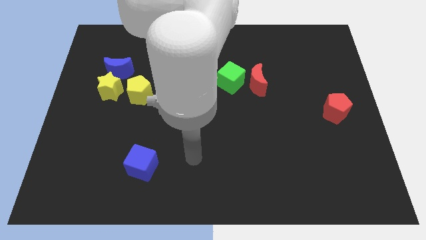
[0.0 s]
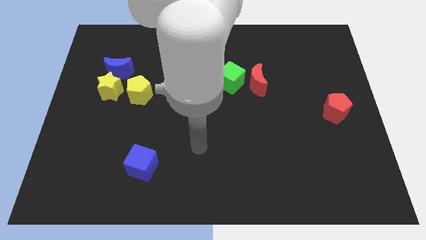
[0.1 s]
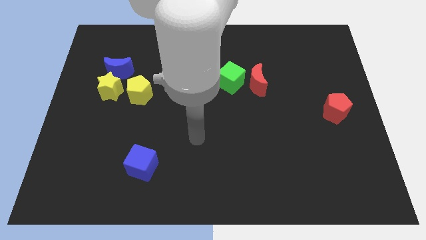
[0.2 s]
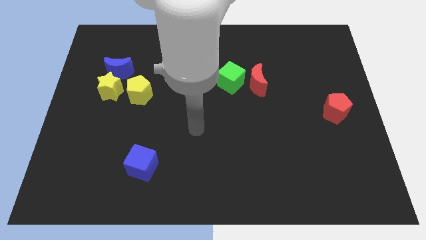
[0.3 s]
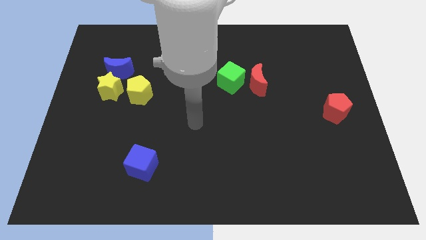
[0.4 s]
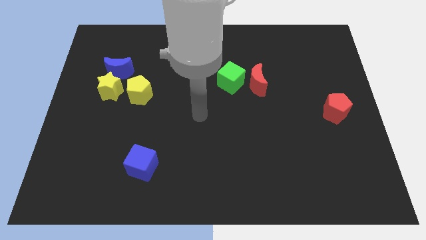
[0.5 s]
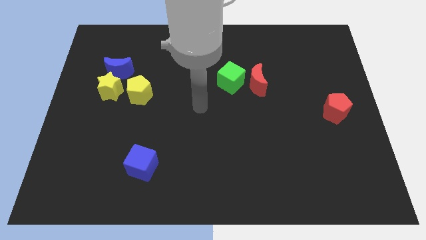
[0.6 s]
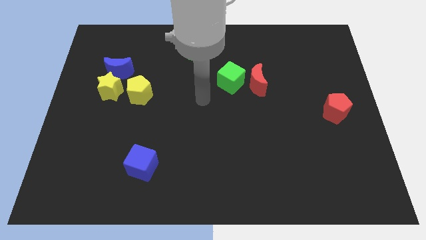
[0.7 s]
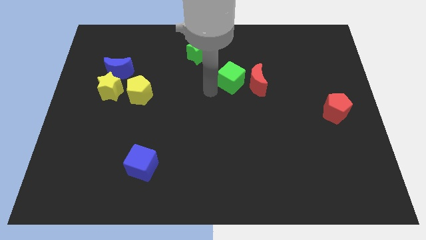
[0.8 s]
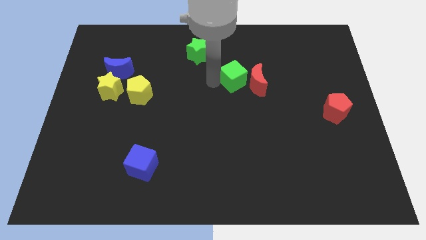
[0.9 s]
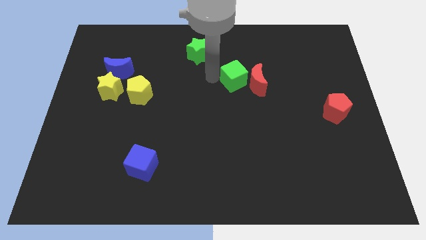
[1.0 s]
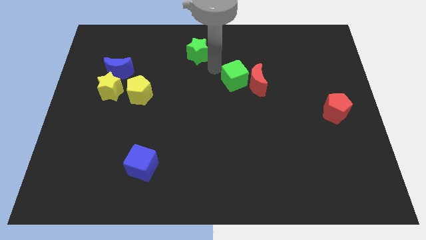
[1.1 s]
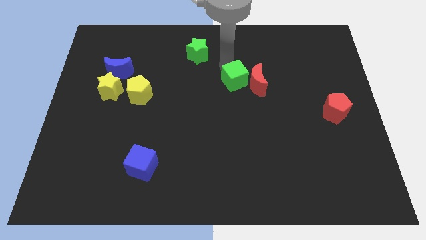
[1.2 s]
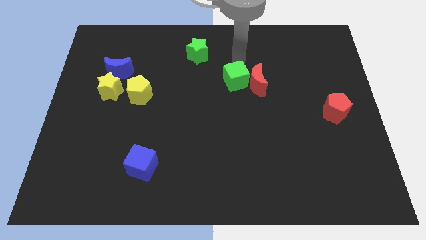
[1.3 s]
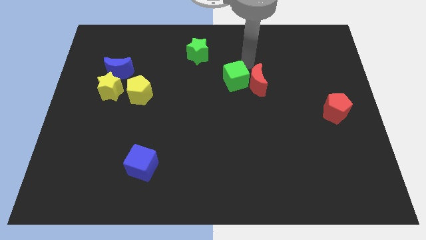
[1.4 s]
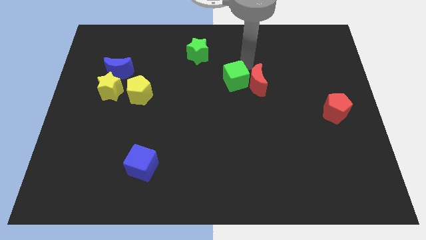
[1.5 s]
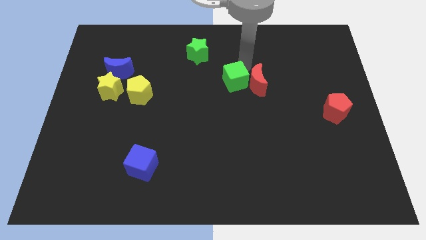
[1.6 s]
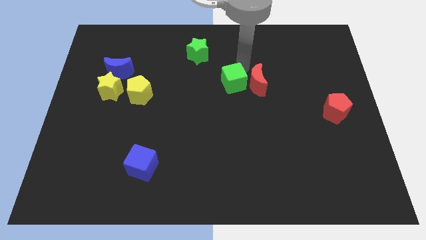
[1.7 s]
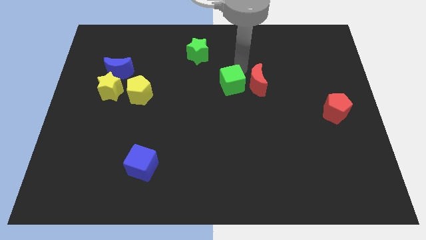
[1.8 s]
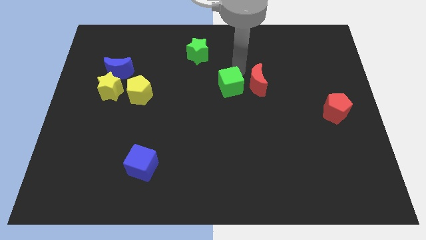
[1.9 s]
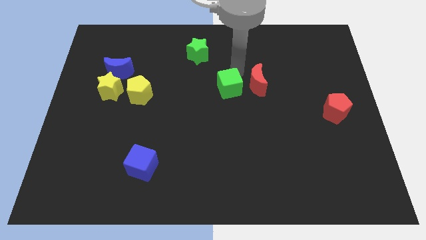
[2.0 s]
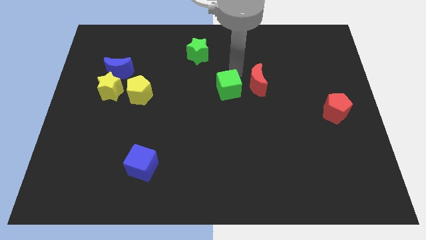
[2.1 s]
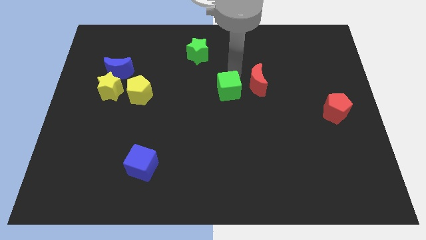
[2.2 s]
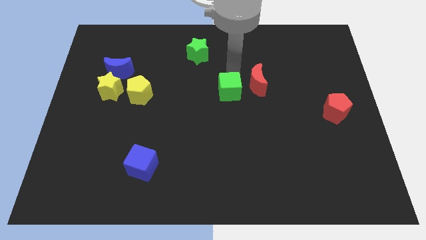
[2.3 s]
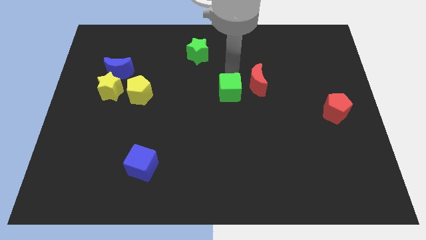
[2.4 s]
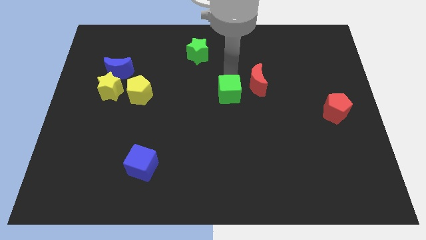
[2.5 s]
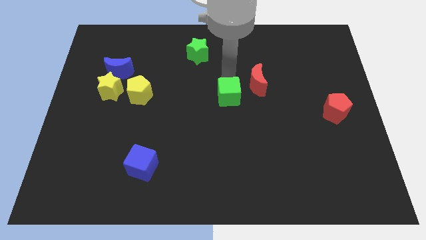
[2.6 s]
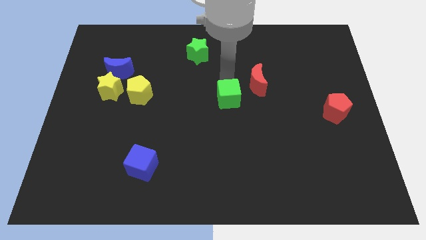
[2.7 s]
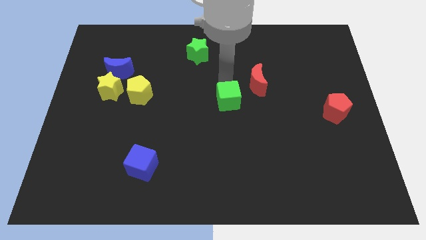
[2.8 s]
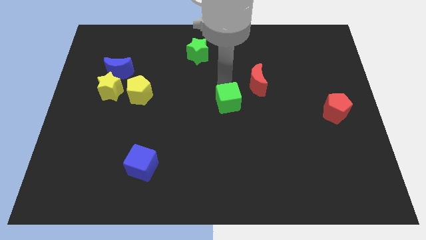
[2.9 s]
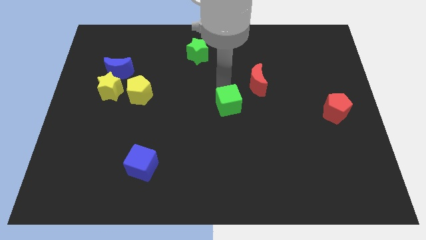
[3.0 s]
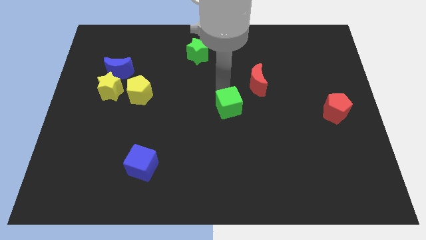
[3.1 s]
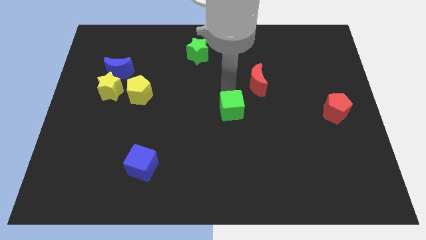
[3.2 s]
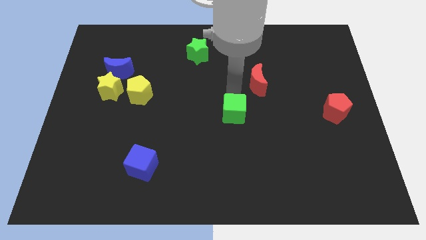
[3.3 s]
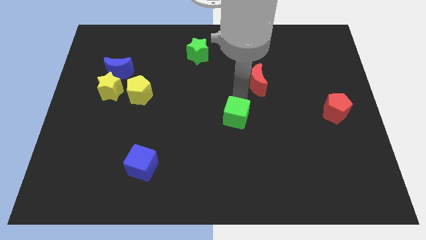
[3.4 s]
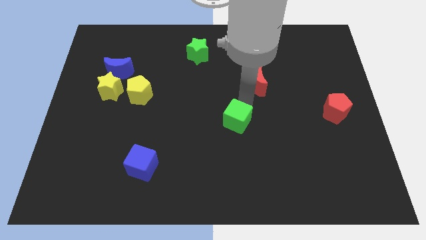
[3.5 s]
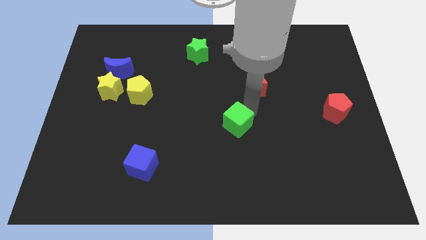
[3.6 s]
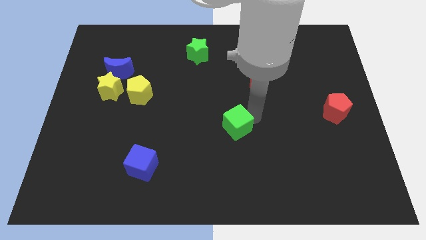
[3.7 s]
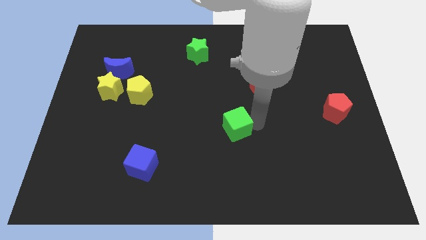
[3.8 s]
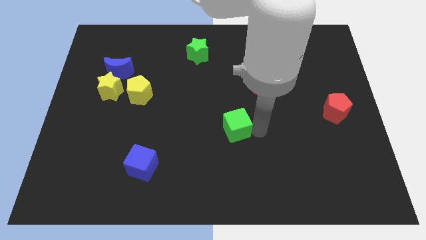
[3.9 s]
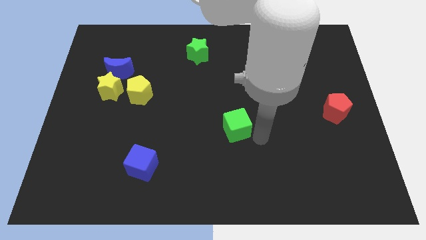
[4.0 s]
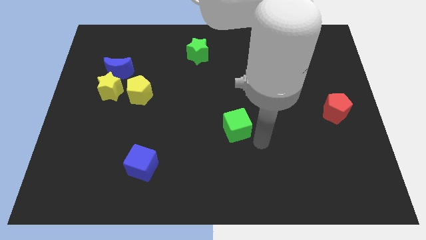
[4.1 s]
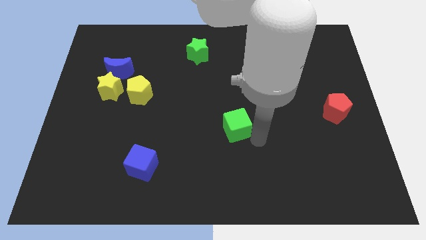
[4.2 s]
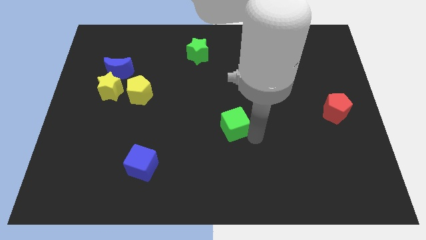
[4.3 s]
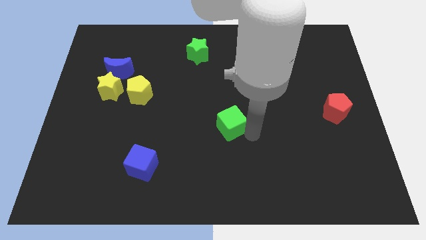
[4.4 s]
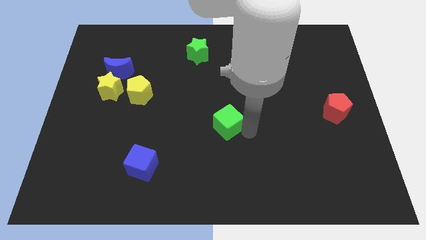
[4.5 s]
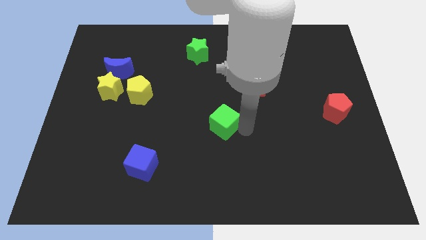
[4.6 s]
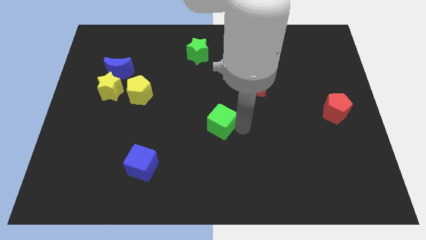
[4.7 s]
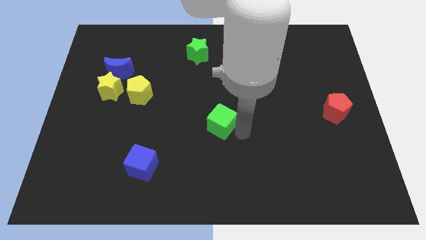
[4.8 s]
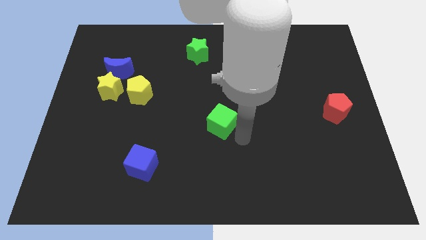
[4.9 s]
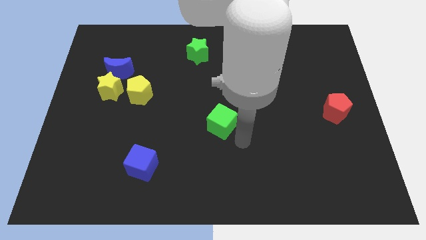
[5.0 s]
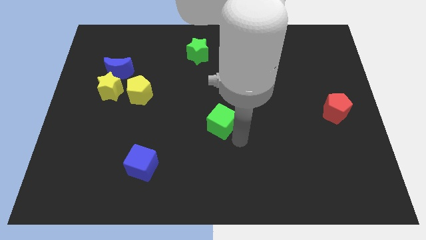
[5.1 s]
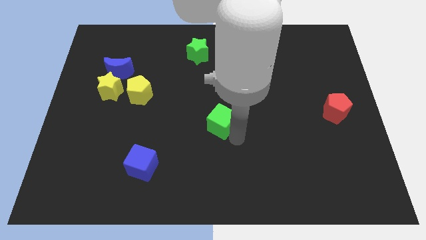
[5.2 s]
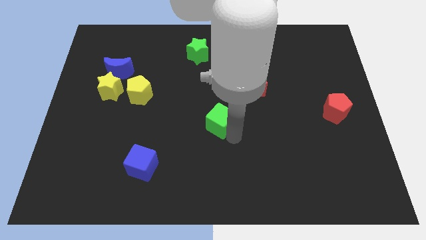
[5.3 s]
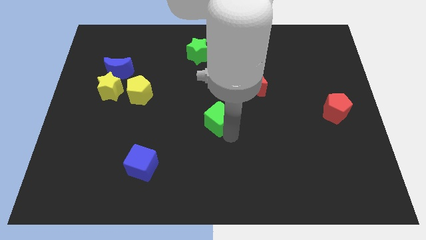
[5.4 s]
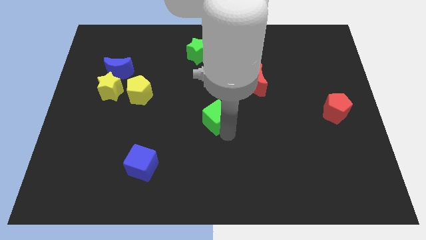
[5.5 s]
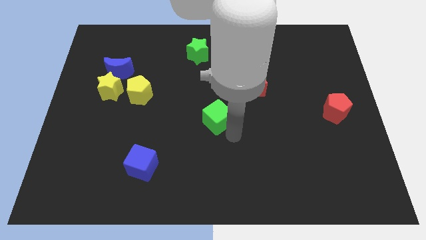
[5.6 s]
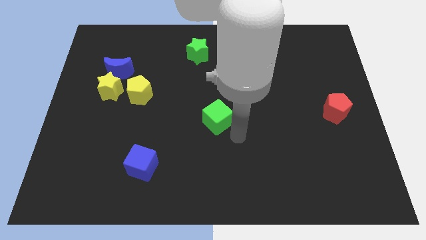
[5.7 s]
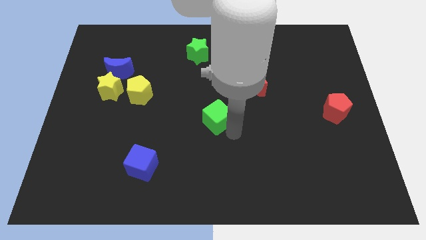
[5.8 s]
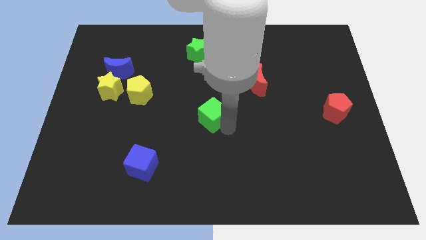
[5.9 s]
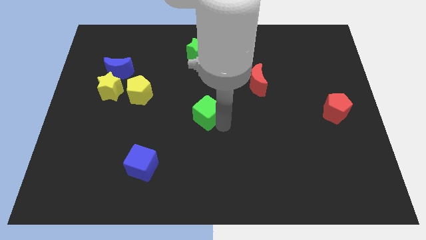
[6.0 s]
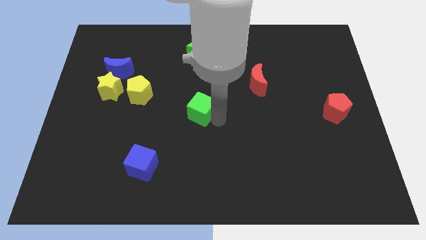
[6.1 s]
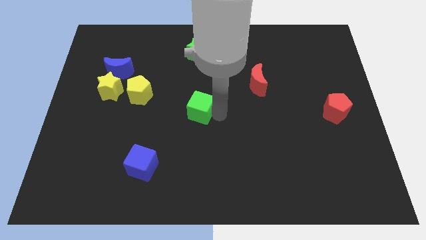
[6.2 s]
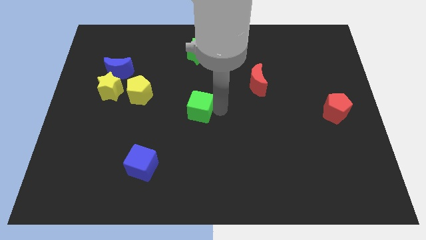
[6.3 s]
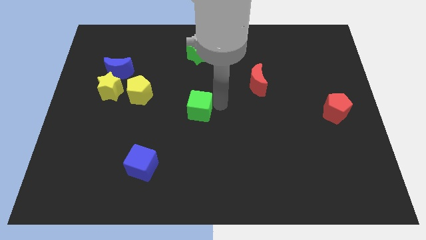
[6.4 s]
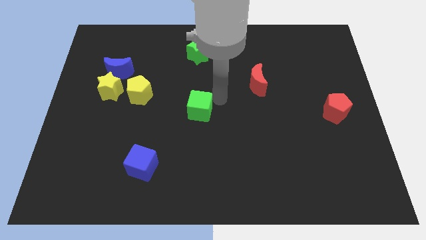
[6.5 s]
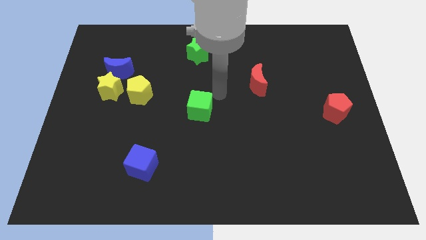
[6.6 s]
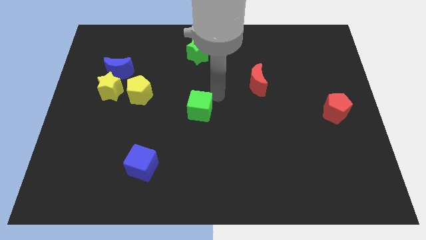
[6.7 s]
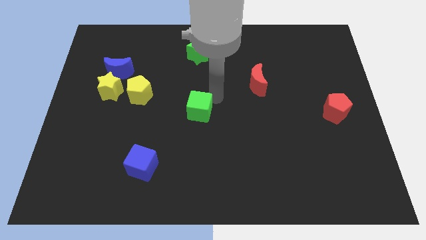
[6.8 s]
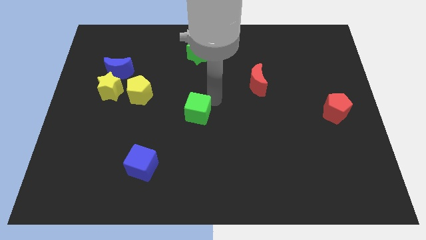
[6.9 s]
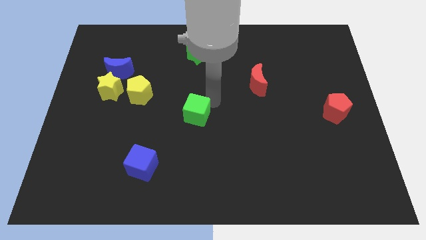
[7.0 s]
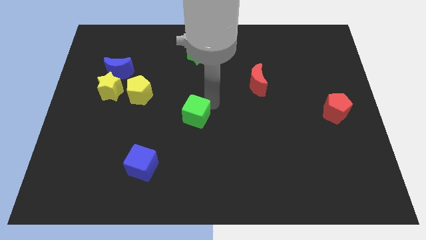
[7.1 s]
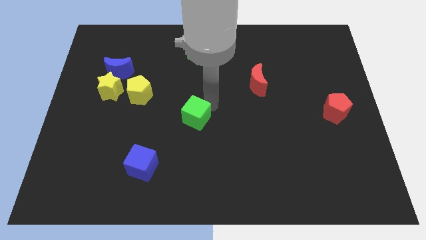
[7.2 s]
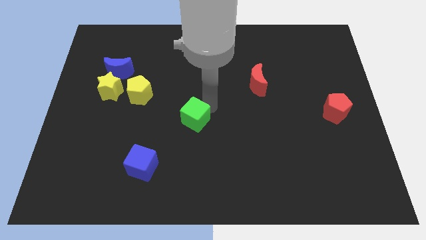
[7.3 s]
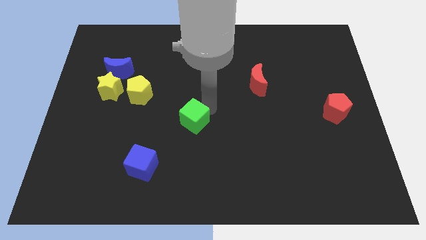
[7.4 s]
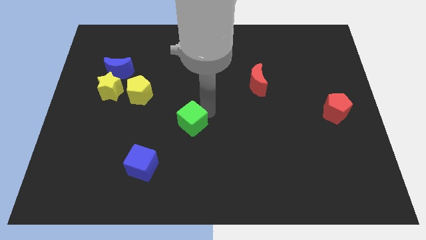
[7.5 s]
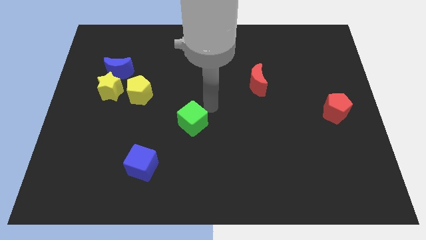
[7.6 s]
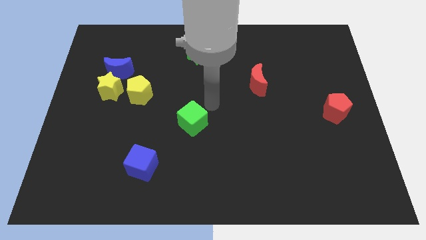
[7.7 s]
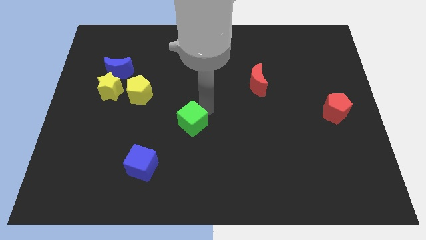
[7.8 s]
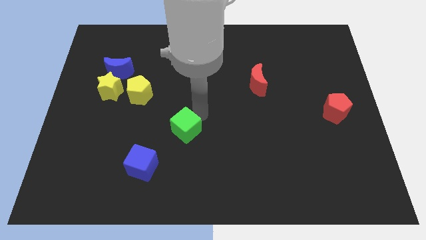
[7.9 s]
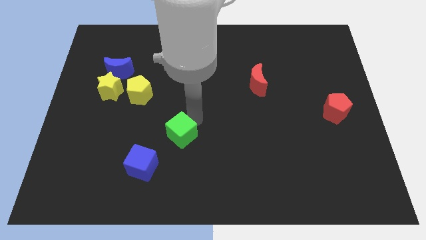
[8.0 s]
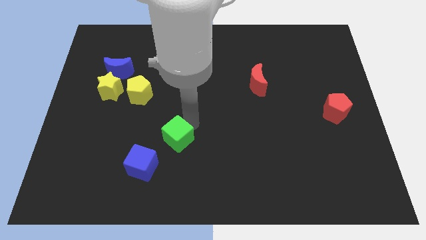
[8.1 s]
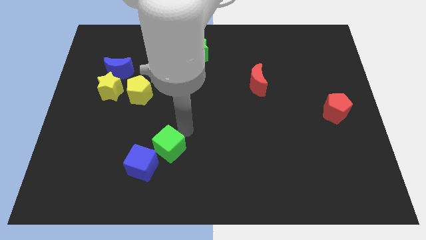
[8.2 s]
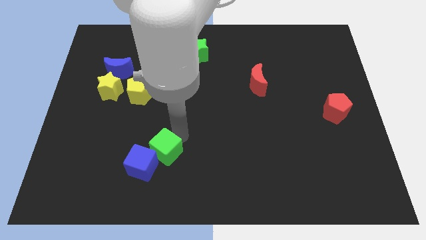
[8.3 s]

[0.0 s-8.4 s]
push the green cube to the blue cube
